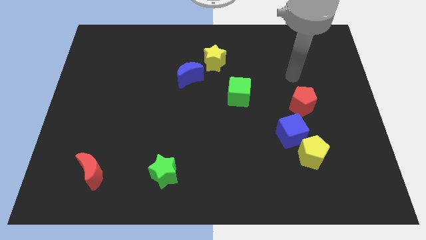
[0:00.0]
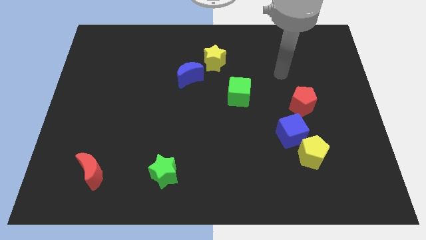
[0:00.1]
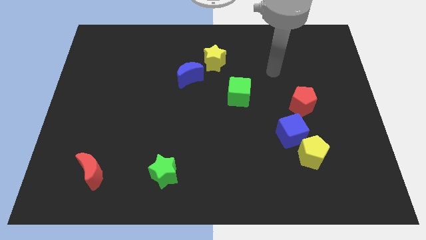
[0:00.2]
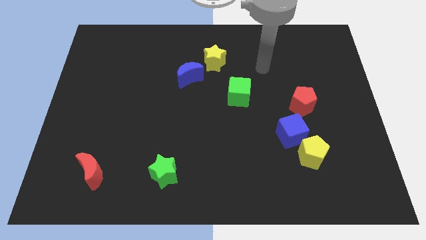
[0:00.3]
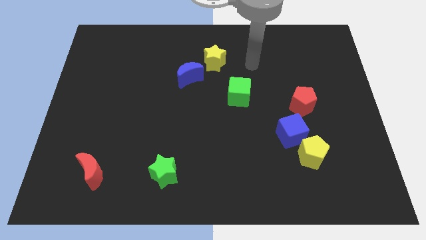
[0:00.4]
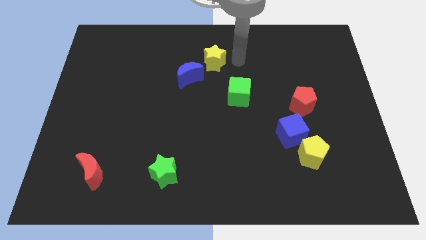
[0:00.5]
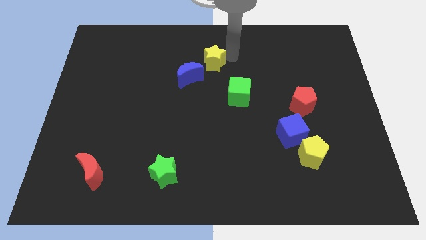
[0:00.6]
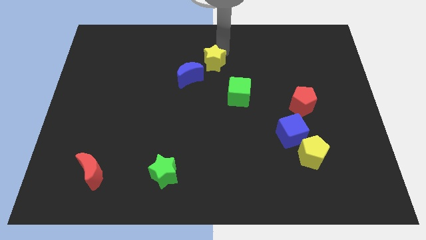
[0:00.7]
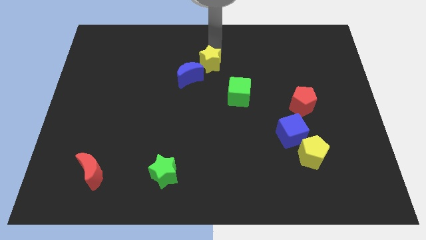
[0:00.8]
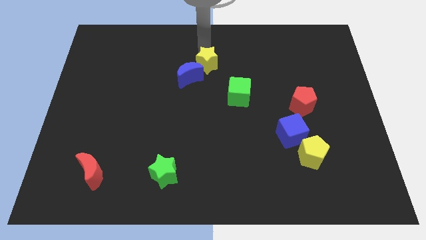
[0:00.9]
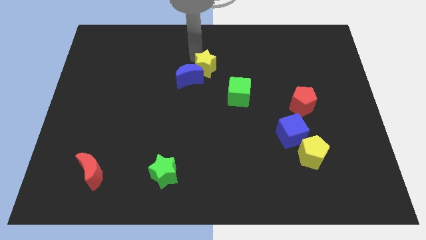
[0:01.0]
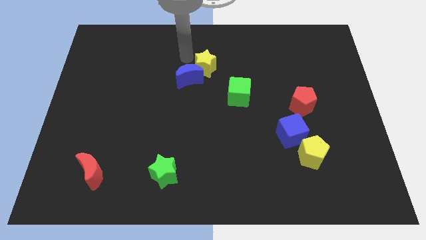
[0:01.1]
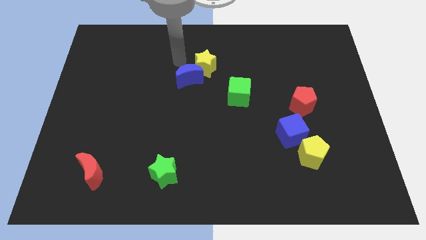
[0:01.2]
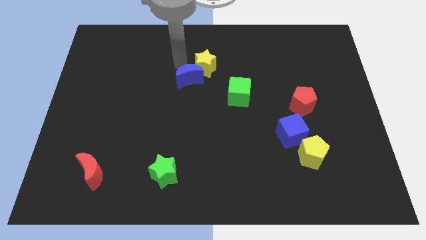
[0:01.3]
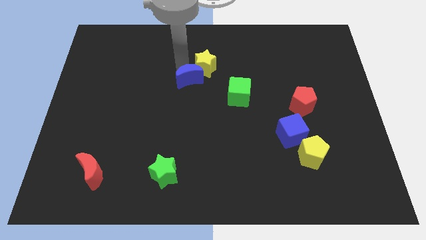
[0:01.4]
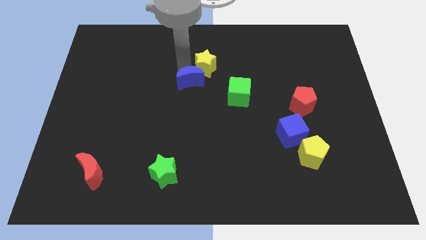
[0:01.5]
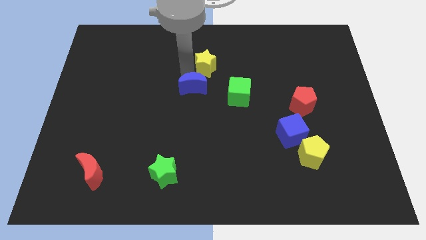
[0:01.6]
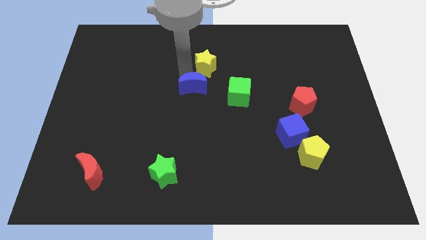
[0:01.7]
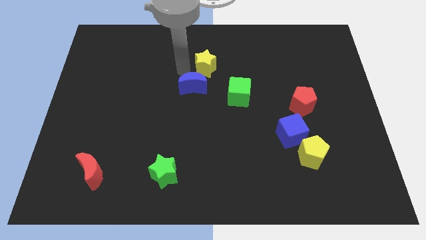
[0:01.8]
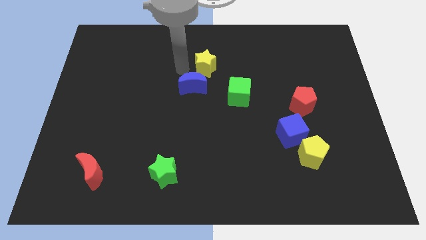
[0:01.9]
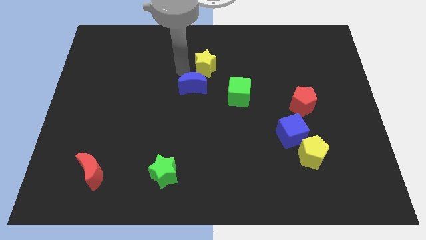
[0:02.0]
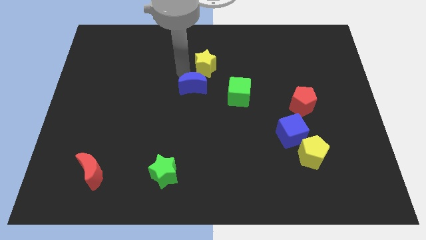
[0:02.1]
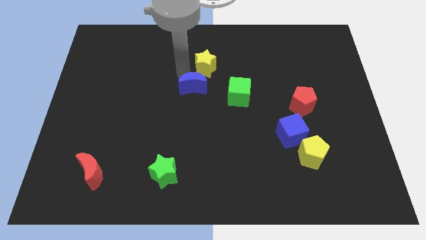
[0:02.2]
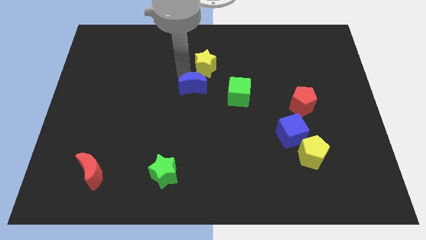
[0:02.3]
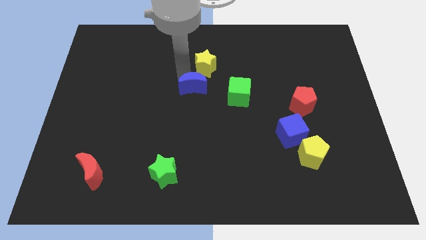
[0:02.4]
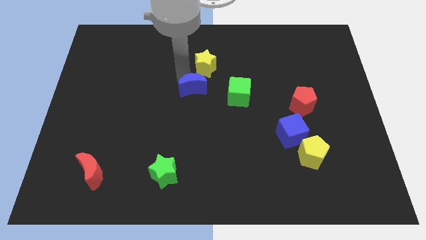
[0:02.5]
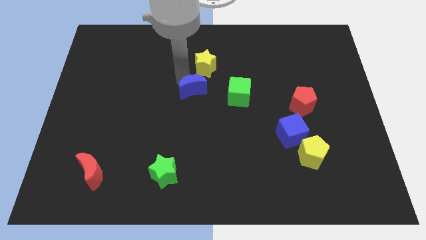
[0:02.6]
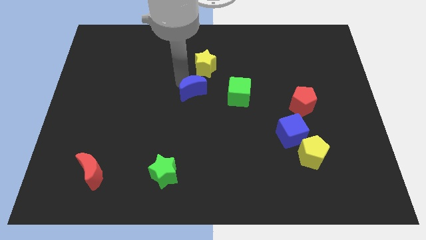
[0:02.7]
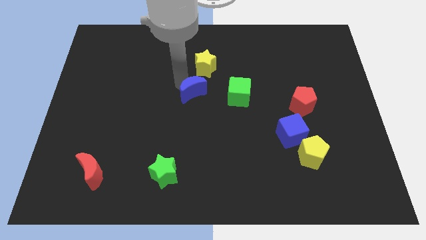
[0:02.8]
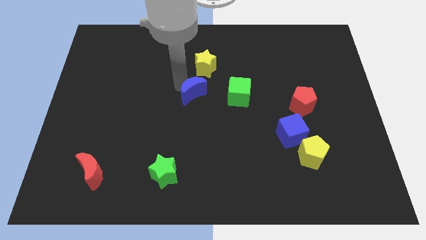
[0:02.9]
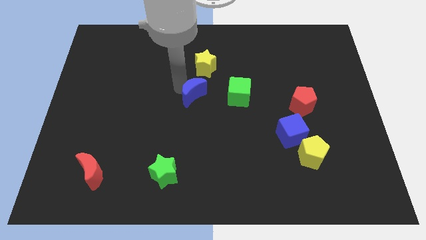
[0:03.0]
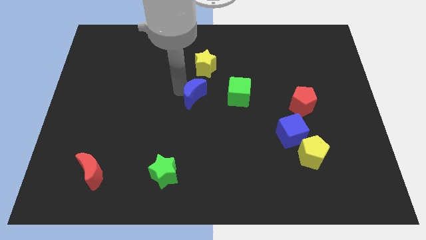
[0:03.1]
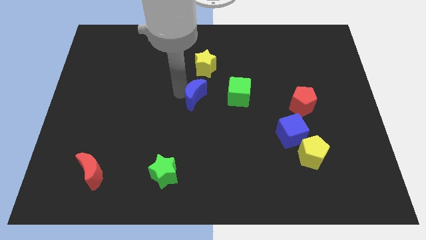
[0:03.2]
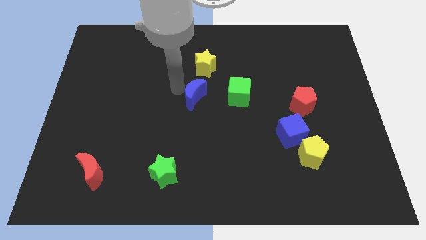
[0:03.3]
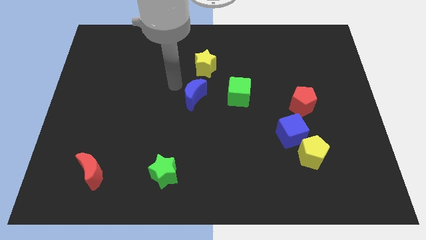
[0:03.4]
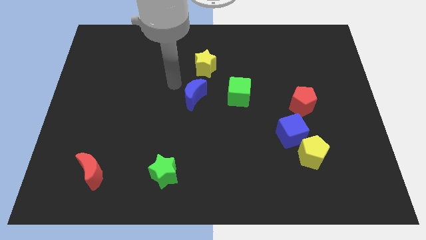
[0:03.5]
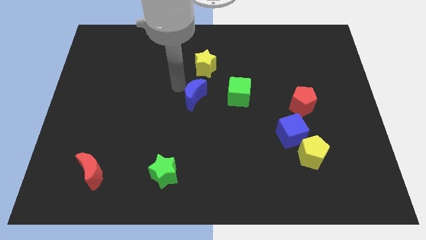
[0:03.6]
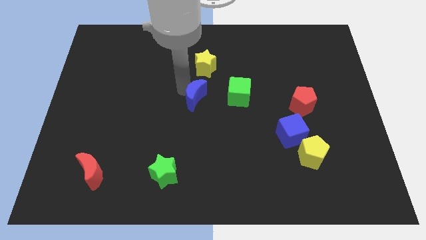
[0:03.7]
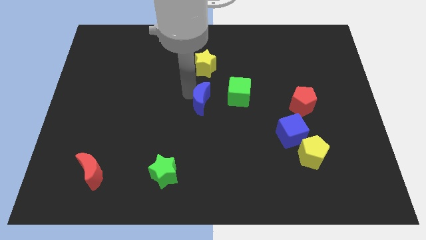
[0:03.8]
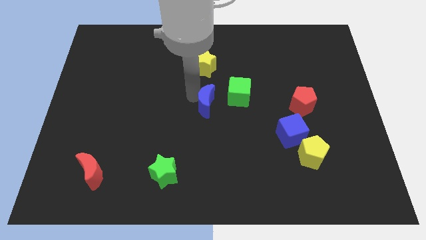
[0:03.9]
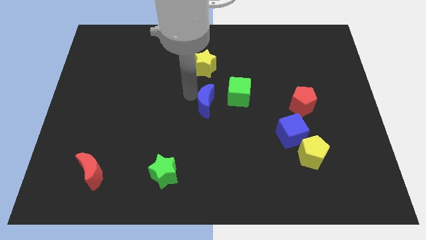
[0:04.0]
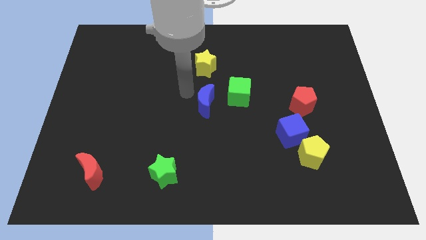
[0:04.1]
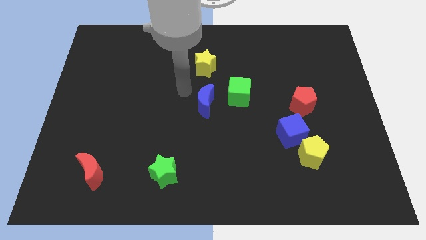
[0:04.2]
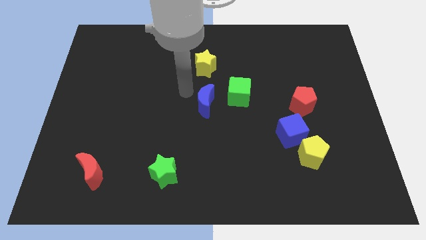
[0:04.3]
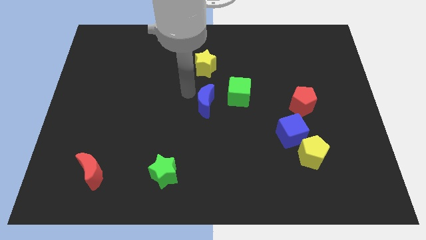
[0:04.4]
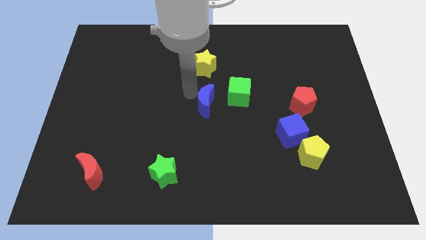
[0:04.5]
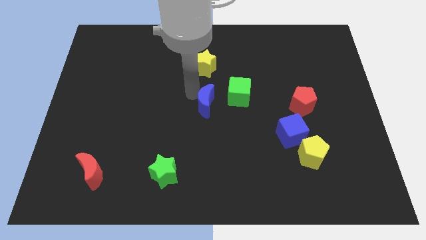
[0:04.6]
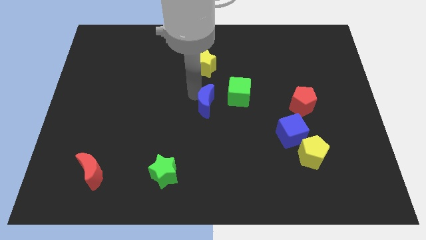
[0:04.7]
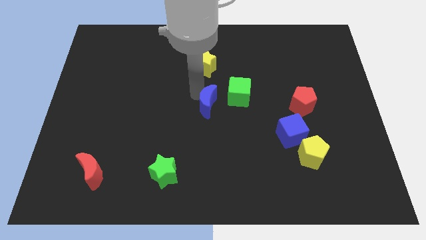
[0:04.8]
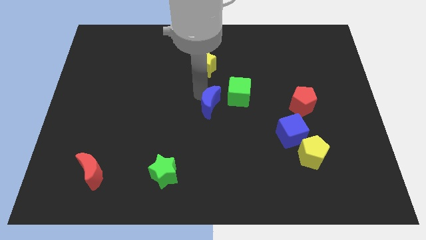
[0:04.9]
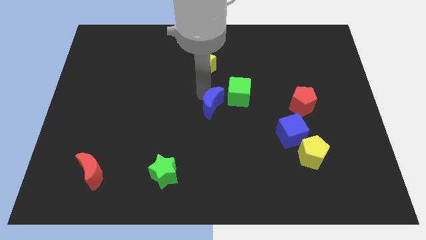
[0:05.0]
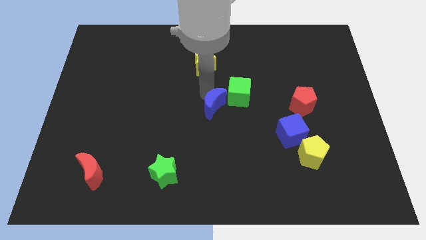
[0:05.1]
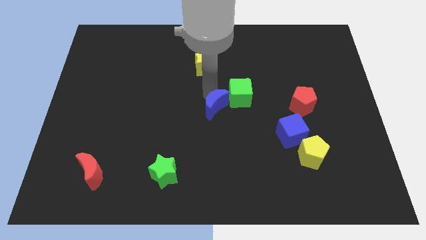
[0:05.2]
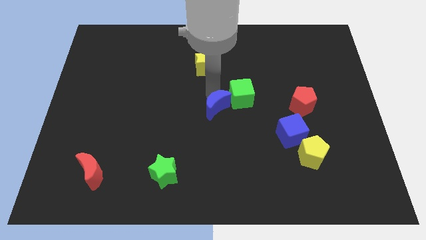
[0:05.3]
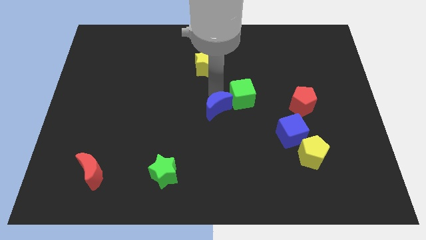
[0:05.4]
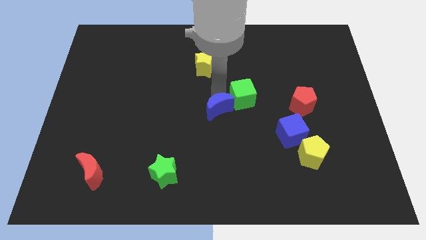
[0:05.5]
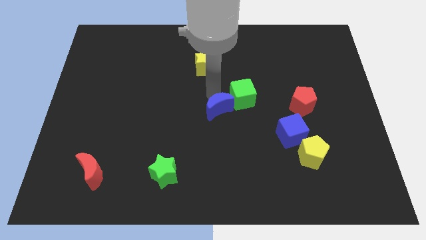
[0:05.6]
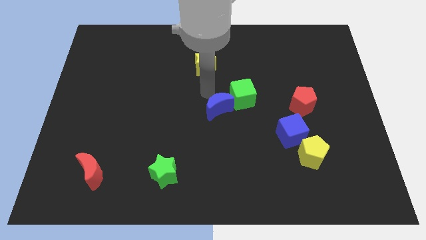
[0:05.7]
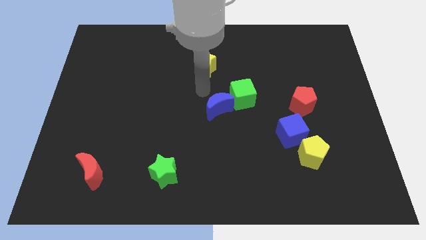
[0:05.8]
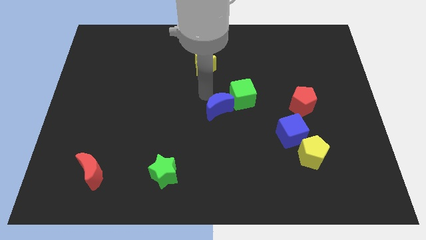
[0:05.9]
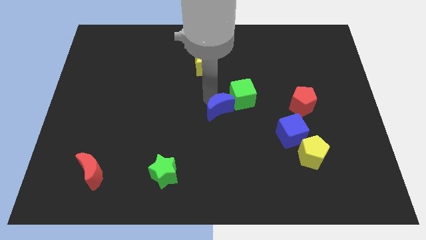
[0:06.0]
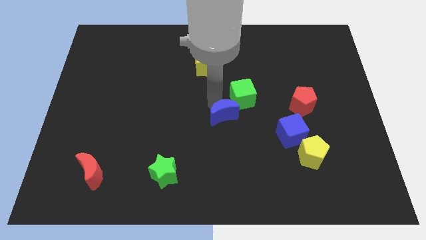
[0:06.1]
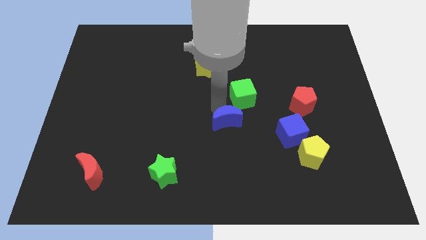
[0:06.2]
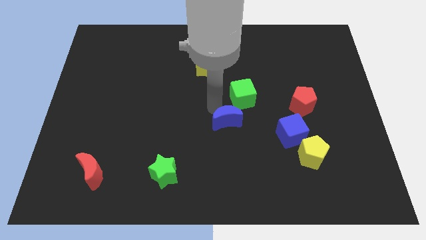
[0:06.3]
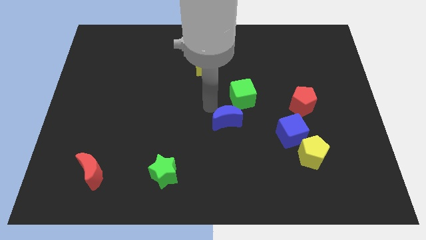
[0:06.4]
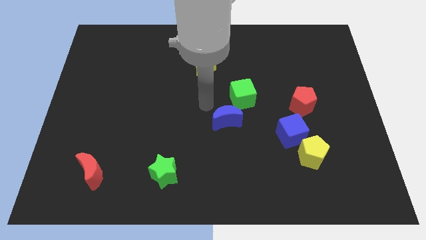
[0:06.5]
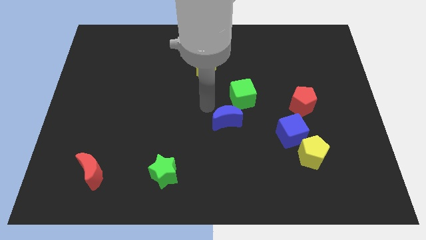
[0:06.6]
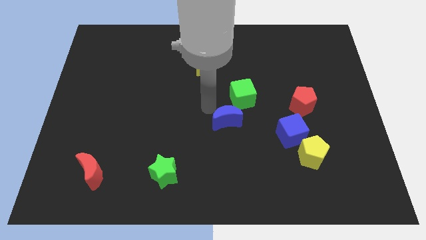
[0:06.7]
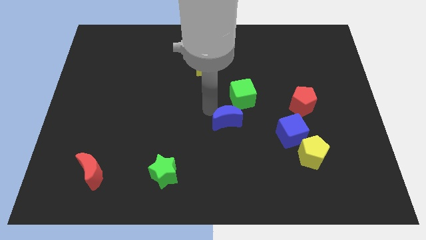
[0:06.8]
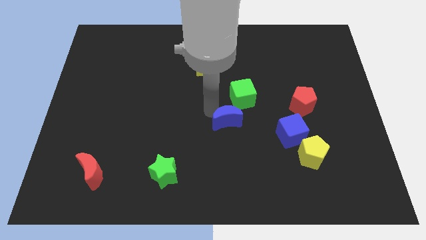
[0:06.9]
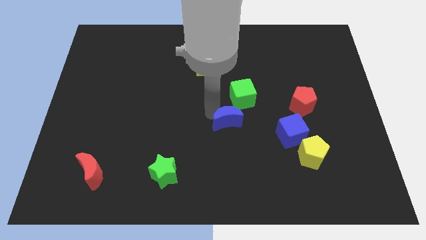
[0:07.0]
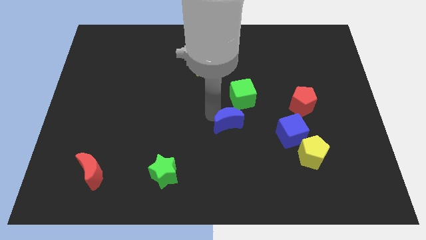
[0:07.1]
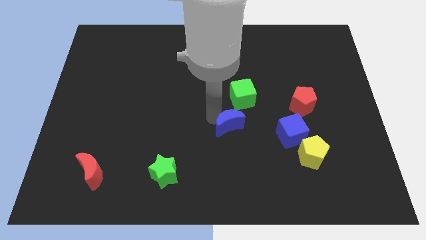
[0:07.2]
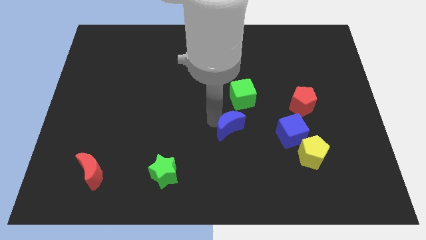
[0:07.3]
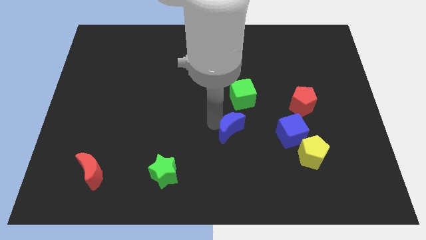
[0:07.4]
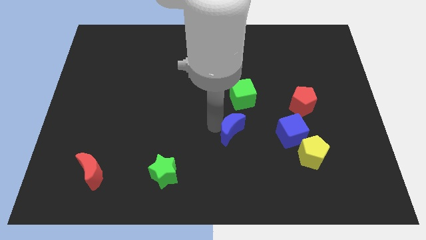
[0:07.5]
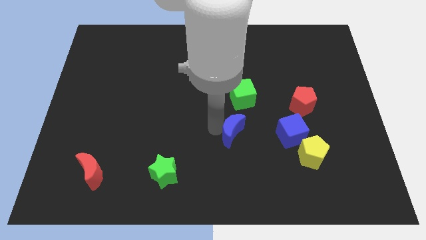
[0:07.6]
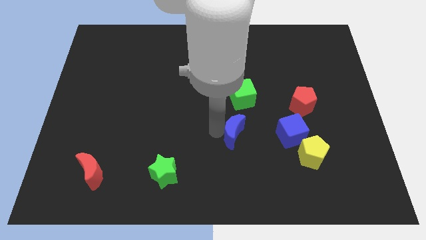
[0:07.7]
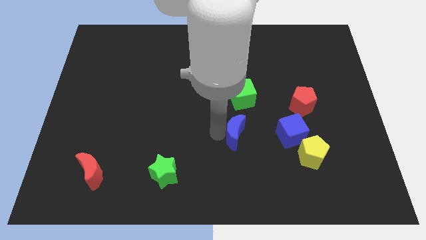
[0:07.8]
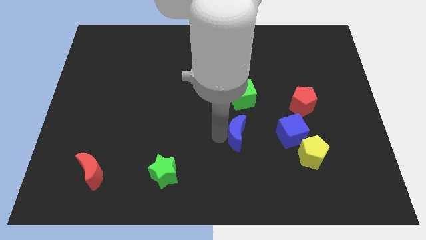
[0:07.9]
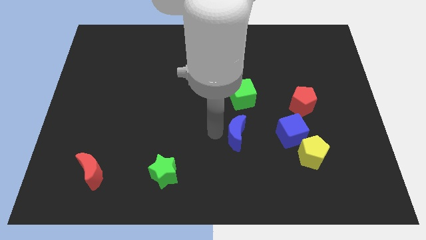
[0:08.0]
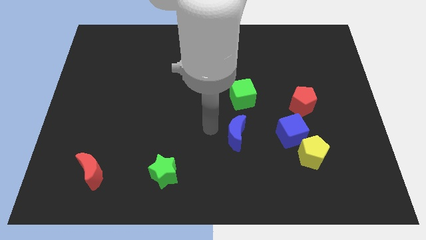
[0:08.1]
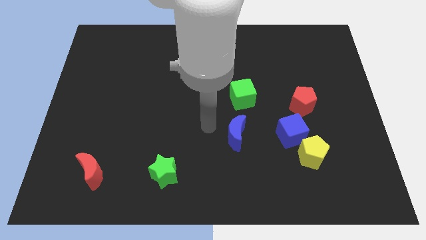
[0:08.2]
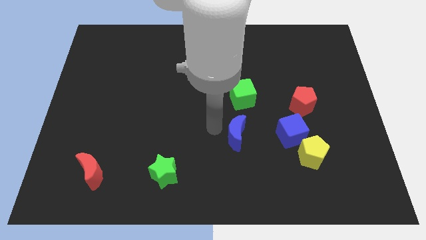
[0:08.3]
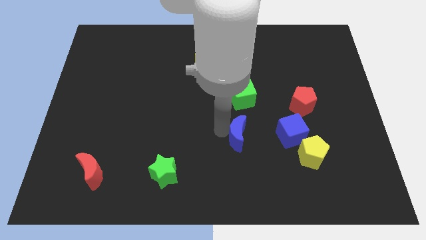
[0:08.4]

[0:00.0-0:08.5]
slide the blue moon down and then right
